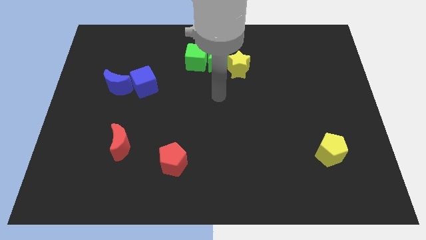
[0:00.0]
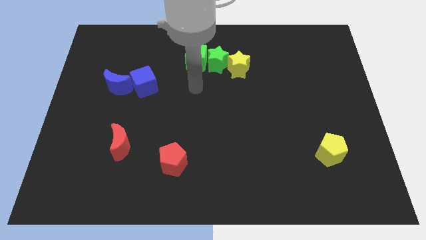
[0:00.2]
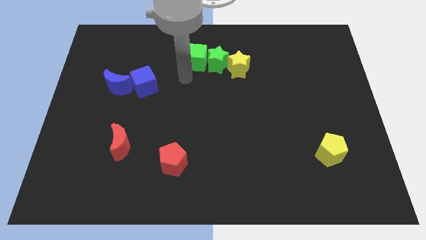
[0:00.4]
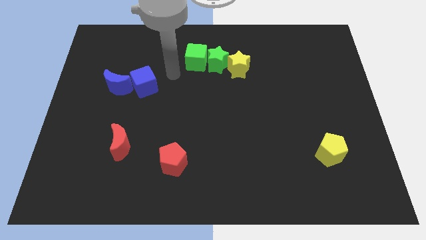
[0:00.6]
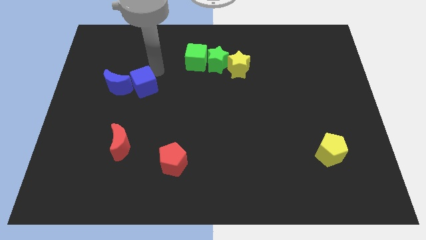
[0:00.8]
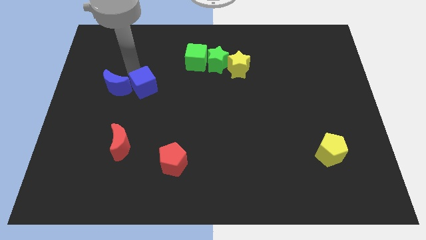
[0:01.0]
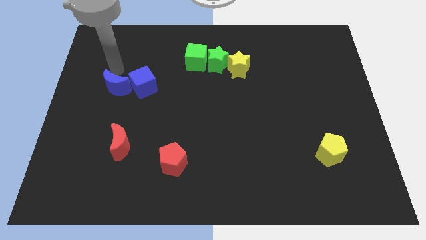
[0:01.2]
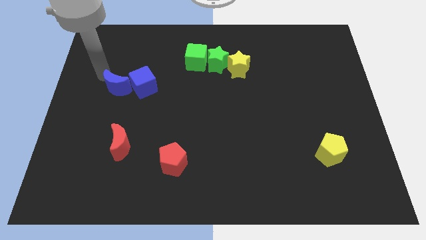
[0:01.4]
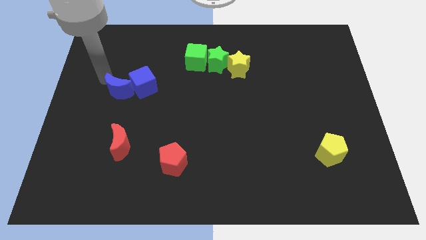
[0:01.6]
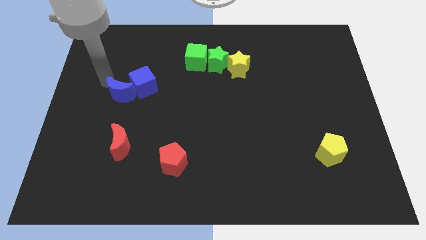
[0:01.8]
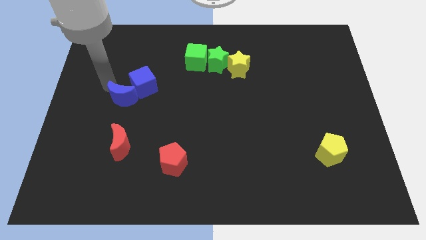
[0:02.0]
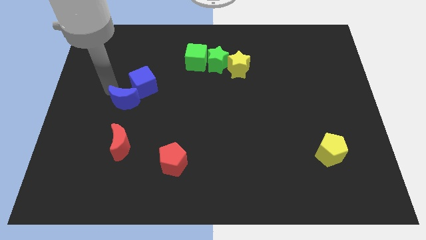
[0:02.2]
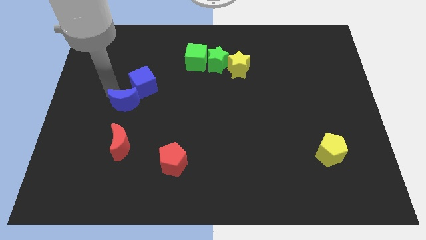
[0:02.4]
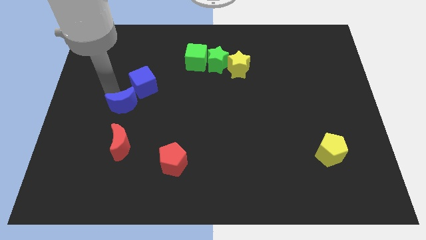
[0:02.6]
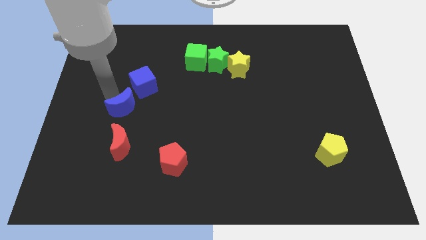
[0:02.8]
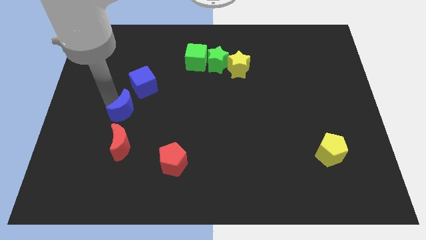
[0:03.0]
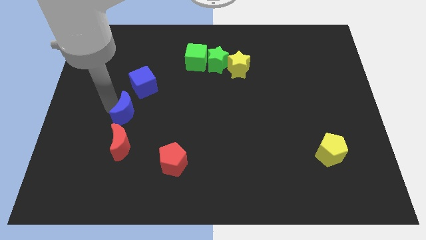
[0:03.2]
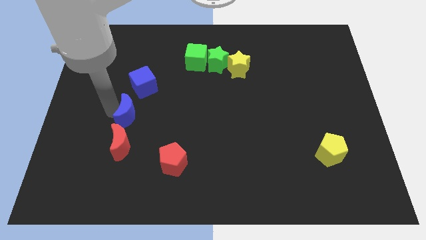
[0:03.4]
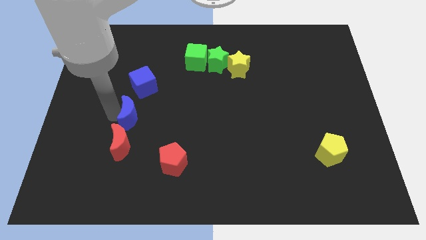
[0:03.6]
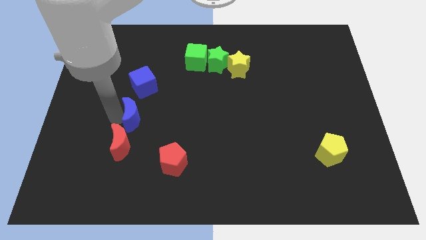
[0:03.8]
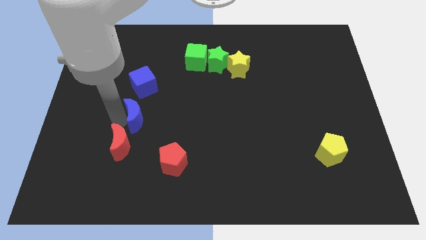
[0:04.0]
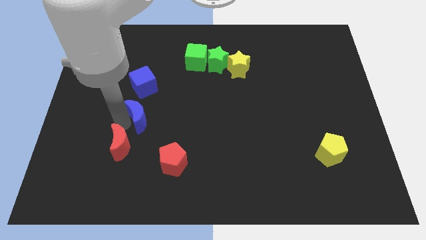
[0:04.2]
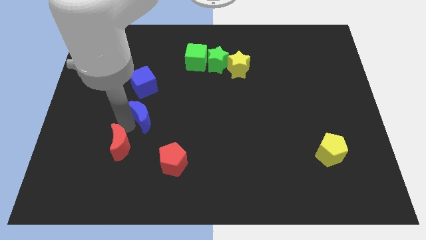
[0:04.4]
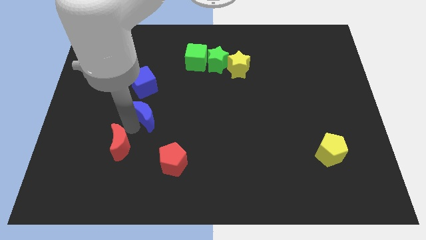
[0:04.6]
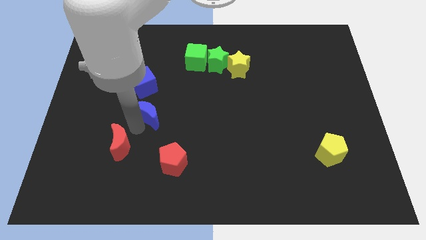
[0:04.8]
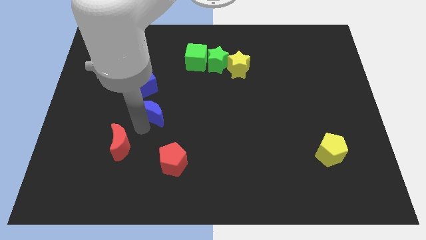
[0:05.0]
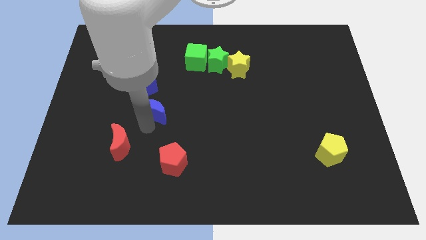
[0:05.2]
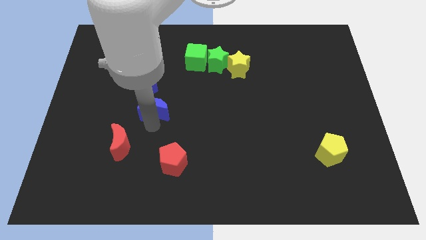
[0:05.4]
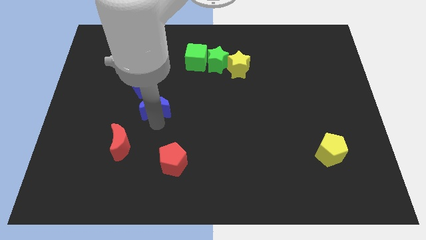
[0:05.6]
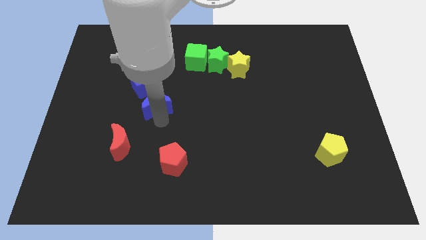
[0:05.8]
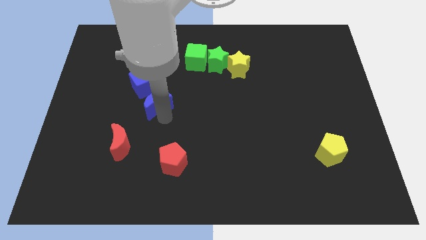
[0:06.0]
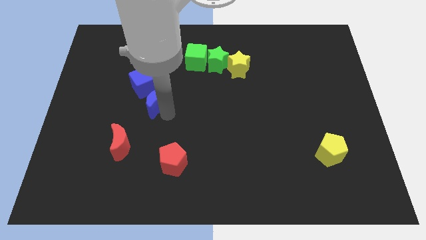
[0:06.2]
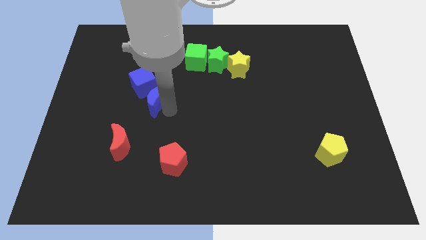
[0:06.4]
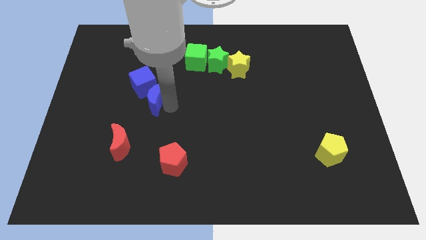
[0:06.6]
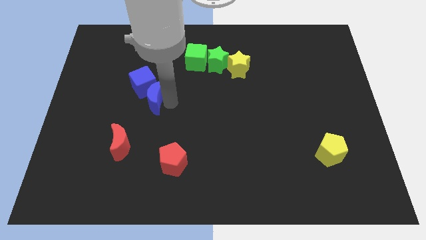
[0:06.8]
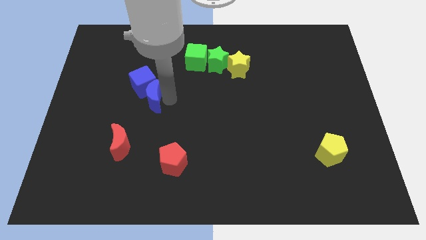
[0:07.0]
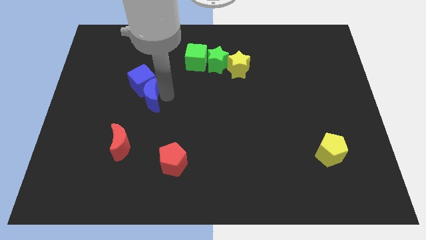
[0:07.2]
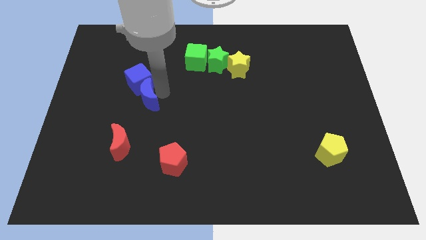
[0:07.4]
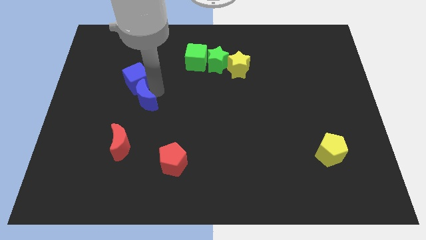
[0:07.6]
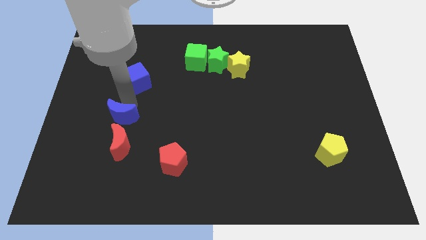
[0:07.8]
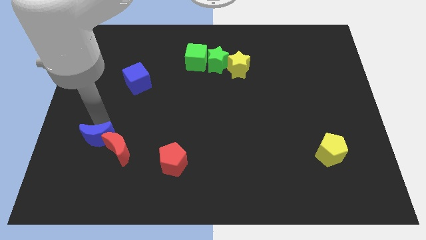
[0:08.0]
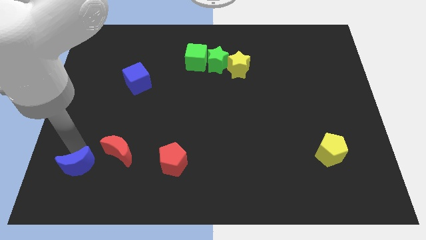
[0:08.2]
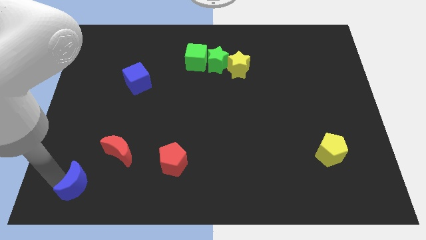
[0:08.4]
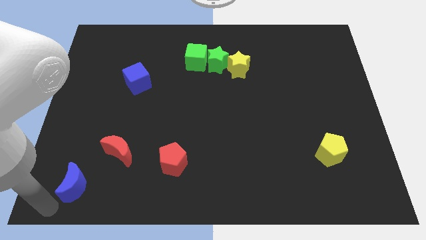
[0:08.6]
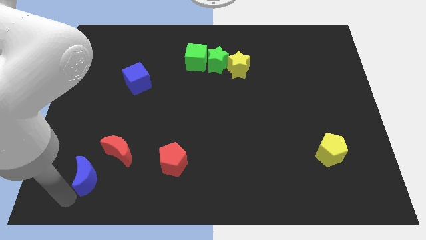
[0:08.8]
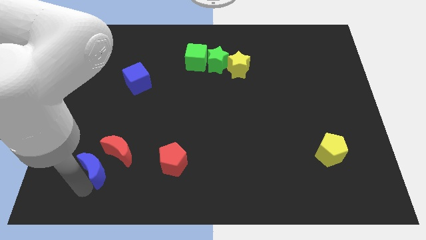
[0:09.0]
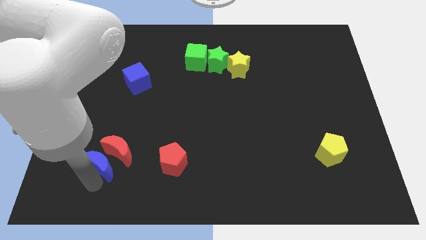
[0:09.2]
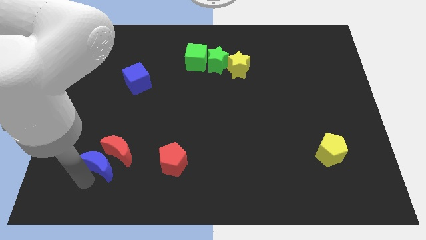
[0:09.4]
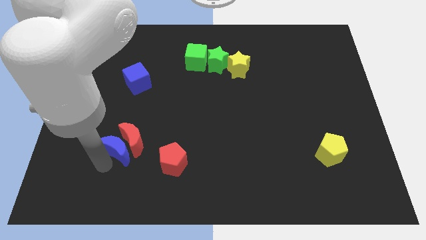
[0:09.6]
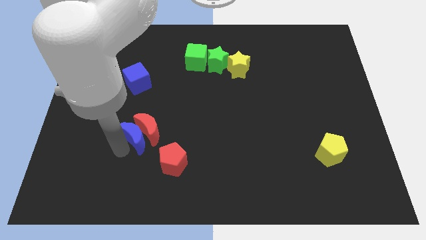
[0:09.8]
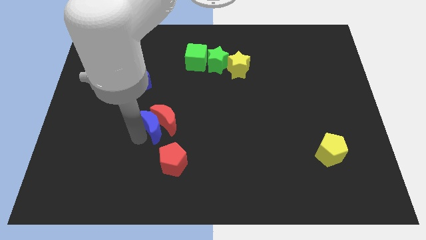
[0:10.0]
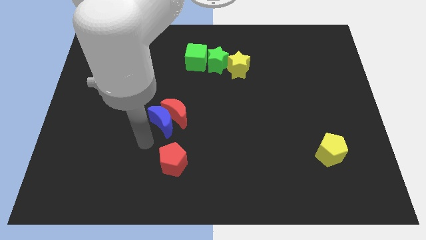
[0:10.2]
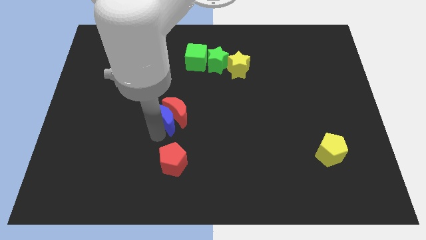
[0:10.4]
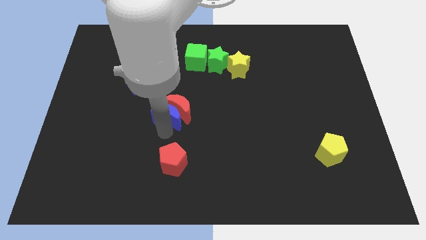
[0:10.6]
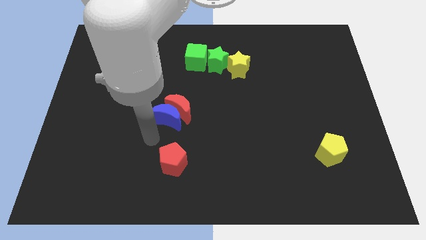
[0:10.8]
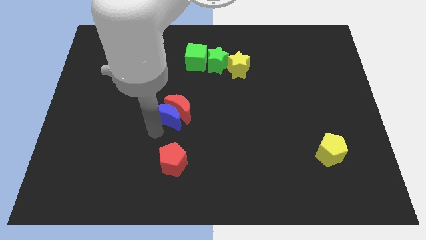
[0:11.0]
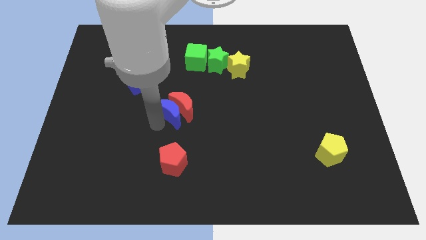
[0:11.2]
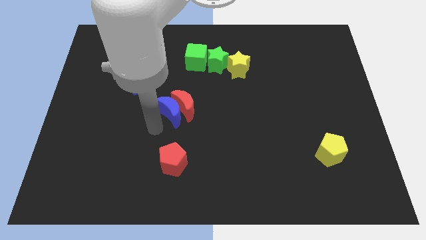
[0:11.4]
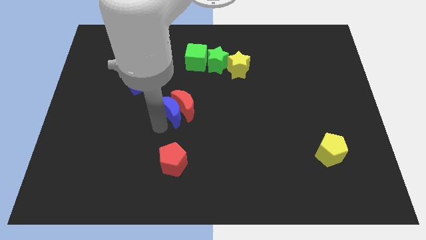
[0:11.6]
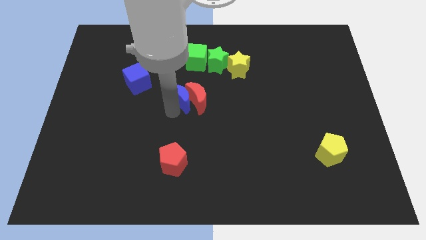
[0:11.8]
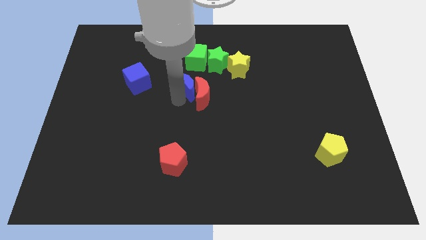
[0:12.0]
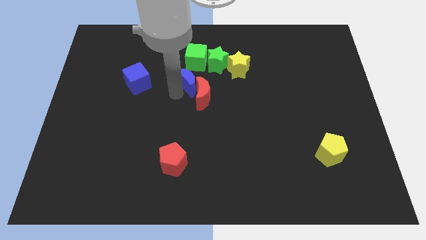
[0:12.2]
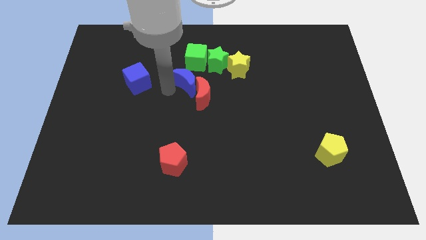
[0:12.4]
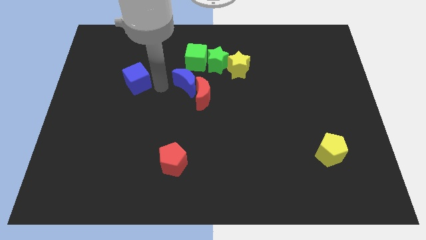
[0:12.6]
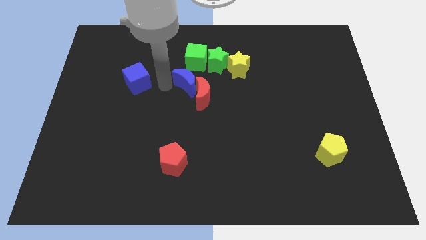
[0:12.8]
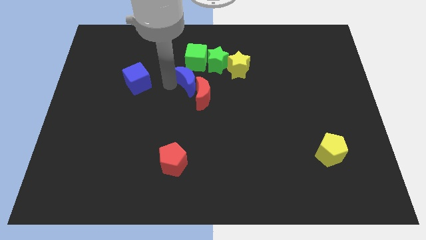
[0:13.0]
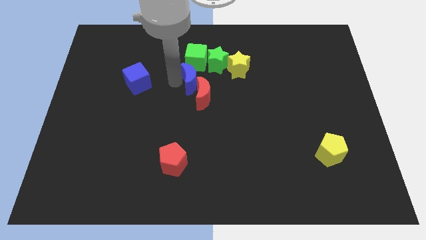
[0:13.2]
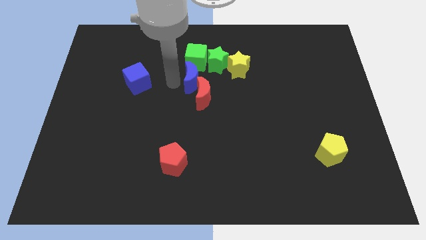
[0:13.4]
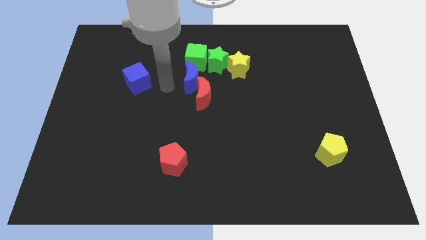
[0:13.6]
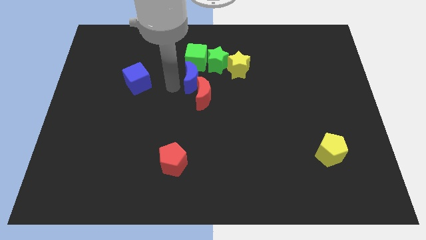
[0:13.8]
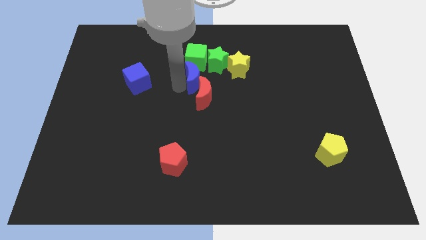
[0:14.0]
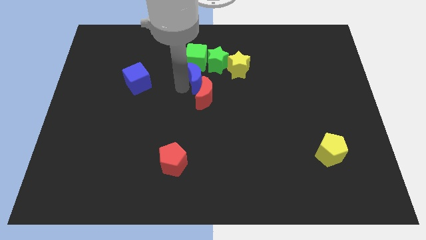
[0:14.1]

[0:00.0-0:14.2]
put the blue moon to the bottom right side of the green cube
